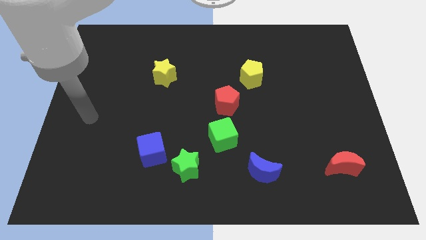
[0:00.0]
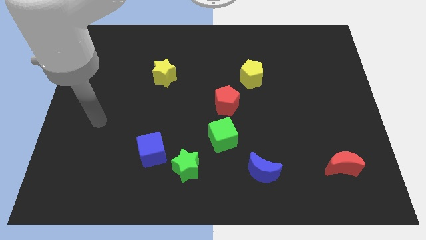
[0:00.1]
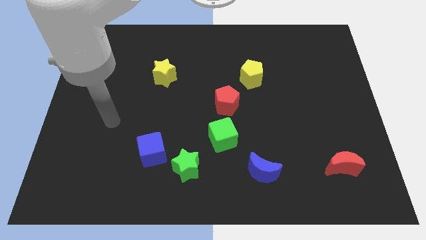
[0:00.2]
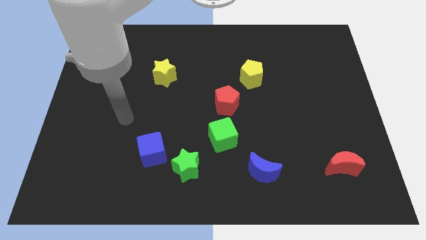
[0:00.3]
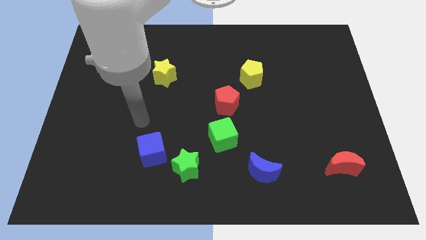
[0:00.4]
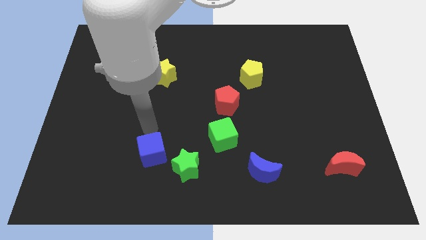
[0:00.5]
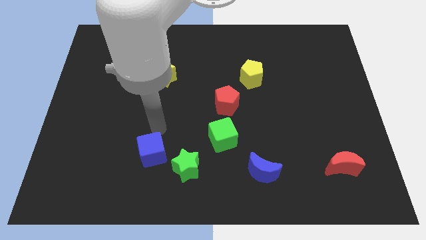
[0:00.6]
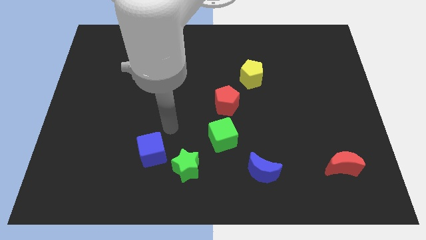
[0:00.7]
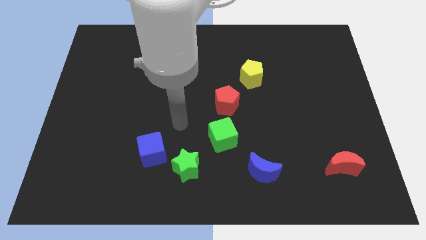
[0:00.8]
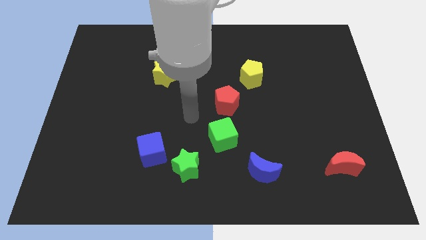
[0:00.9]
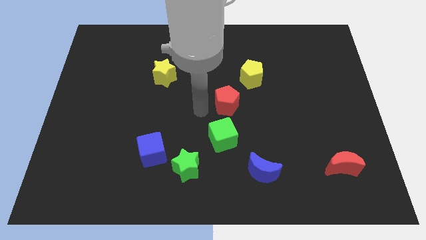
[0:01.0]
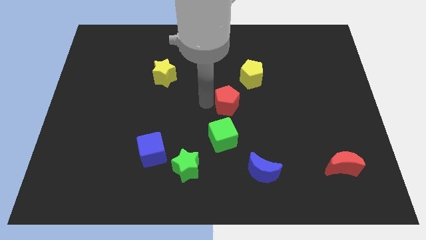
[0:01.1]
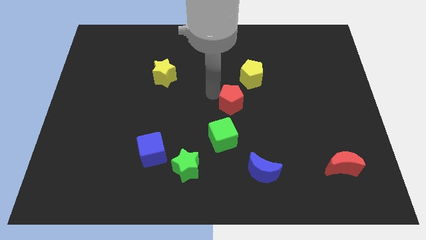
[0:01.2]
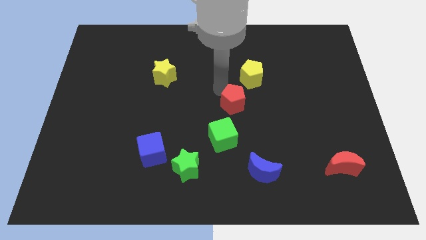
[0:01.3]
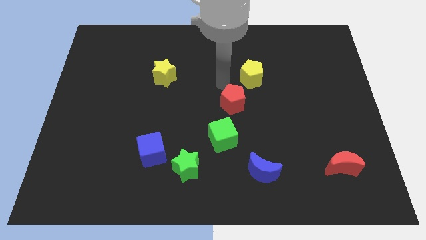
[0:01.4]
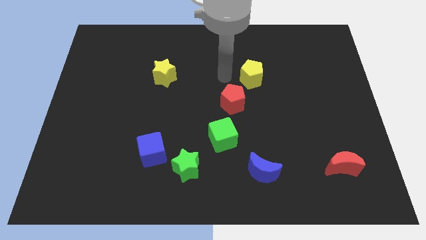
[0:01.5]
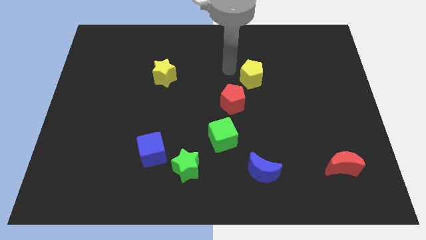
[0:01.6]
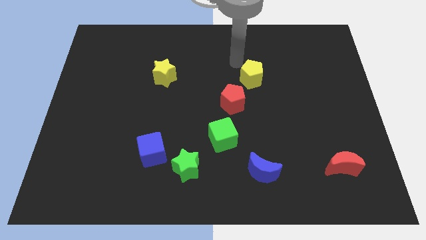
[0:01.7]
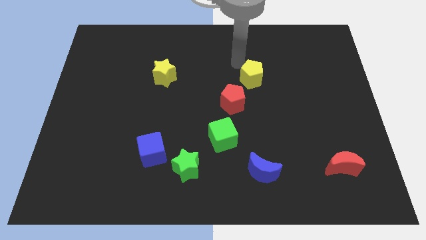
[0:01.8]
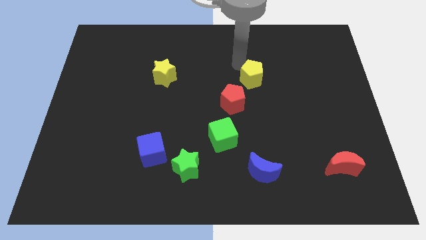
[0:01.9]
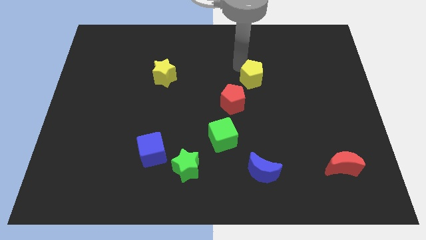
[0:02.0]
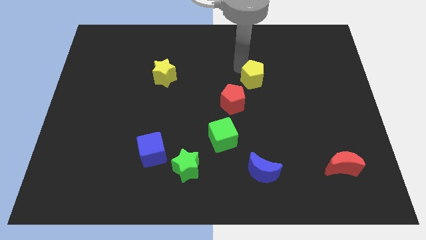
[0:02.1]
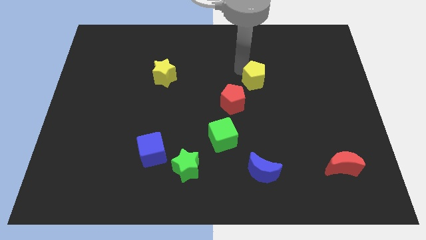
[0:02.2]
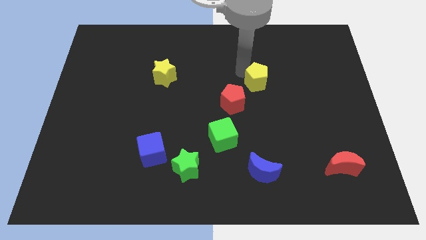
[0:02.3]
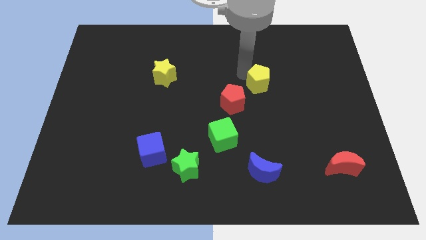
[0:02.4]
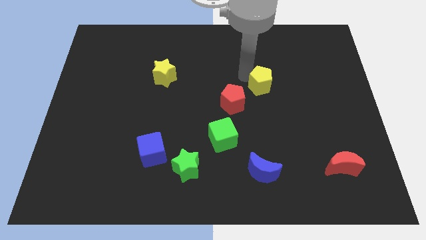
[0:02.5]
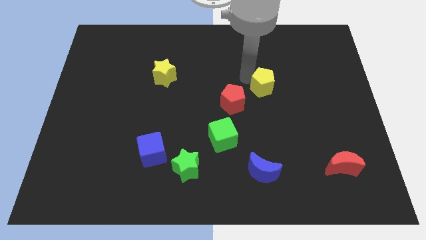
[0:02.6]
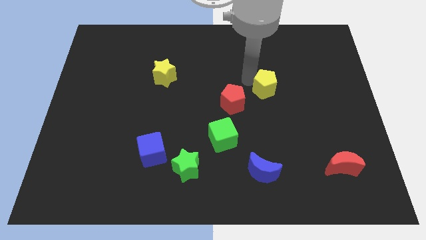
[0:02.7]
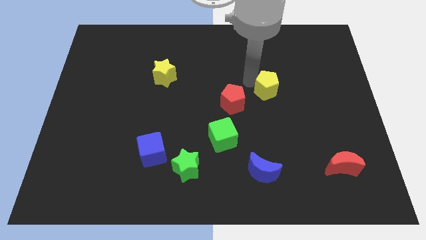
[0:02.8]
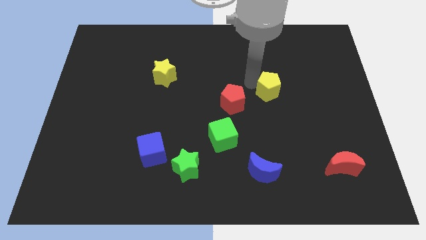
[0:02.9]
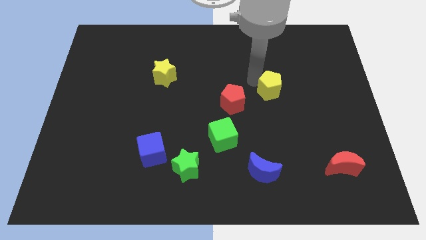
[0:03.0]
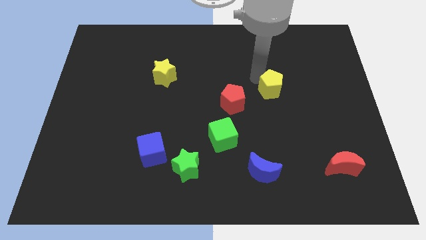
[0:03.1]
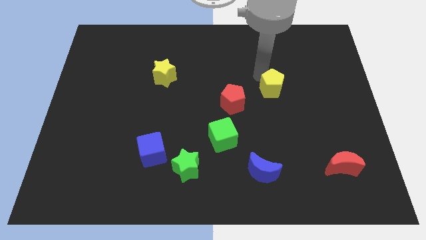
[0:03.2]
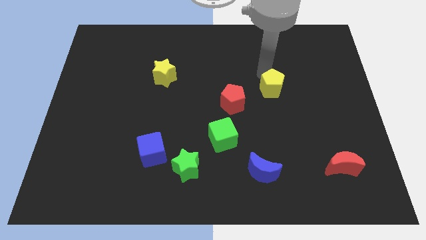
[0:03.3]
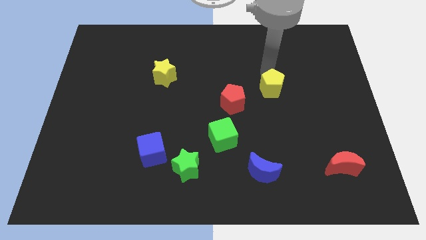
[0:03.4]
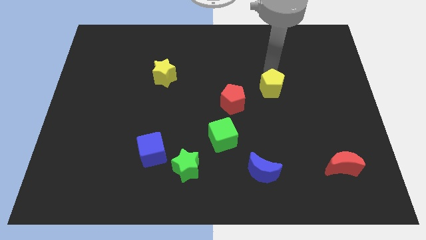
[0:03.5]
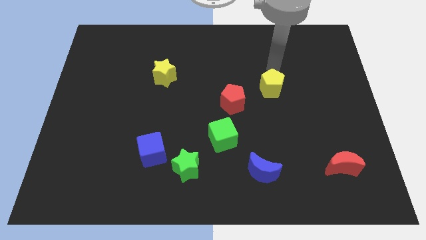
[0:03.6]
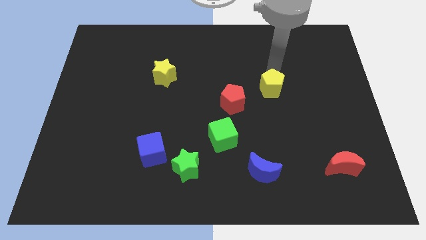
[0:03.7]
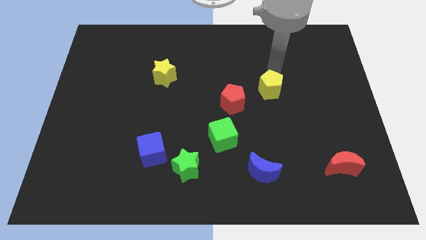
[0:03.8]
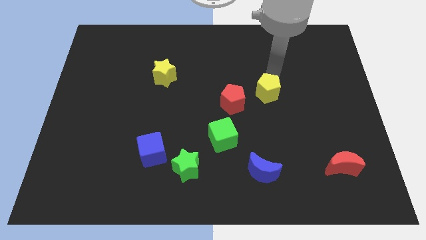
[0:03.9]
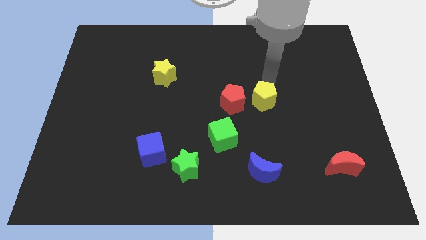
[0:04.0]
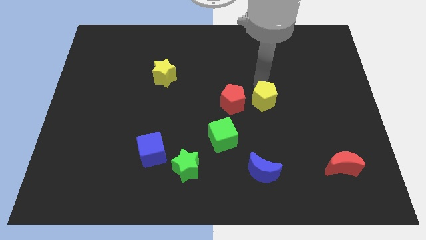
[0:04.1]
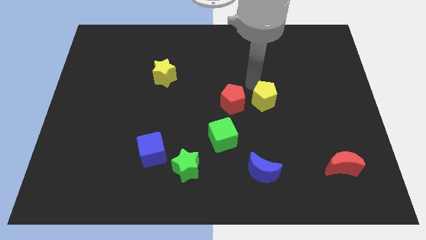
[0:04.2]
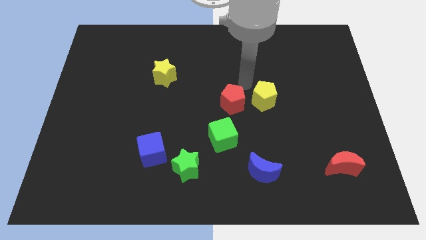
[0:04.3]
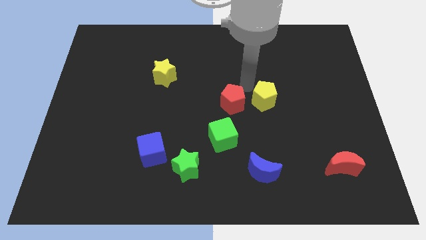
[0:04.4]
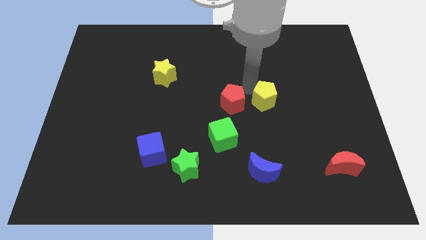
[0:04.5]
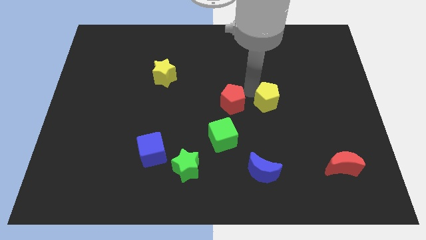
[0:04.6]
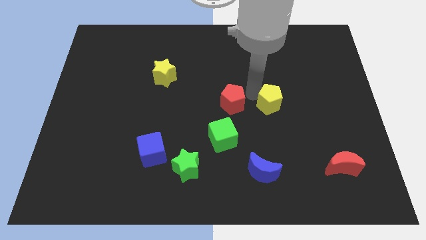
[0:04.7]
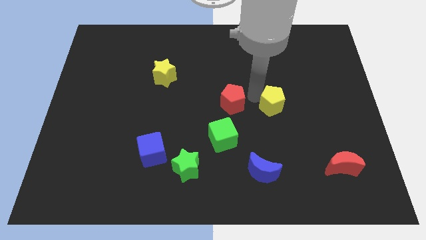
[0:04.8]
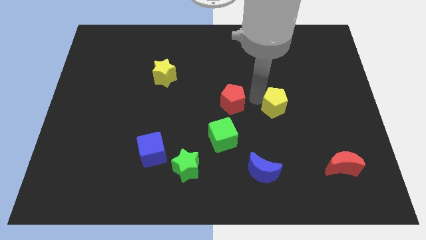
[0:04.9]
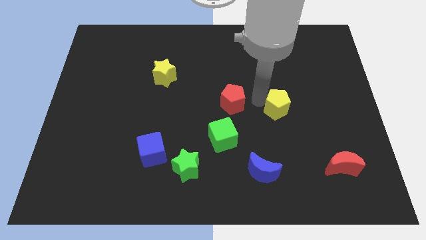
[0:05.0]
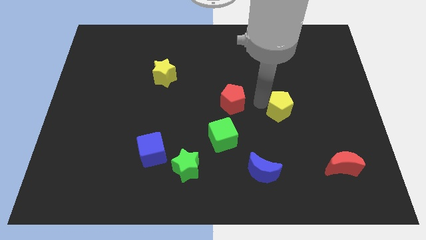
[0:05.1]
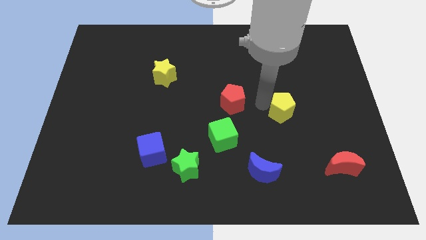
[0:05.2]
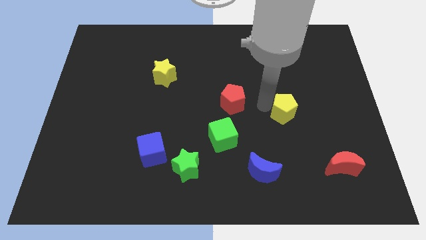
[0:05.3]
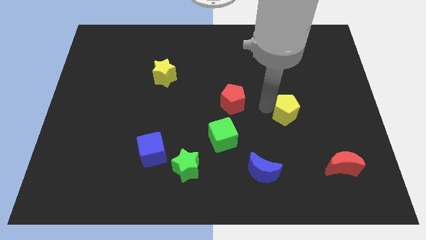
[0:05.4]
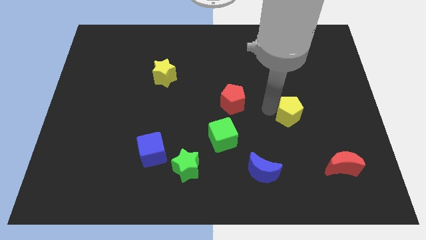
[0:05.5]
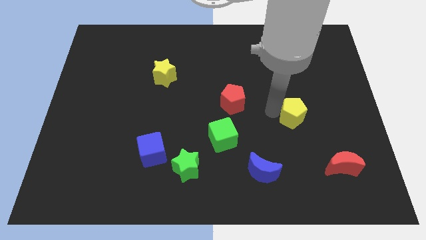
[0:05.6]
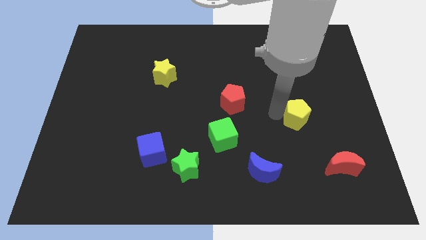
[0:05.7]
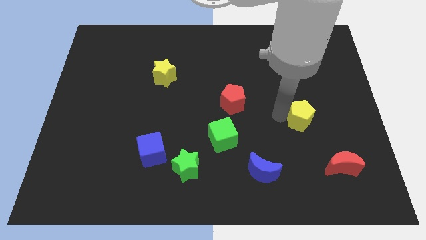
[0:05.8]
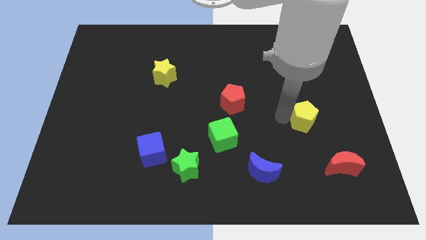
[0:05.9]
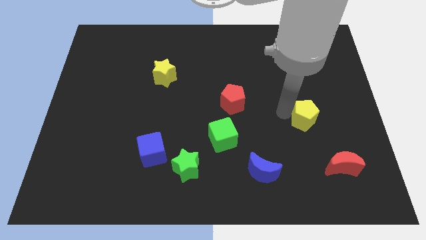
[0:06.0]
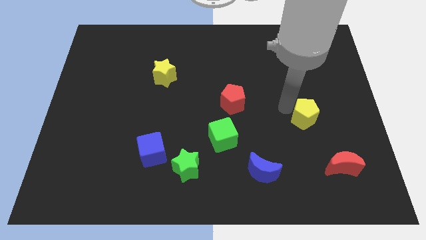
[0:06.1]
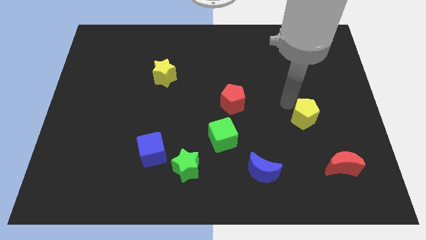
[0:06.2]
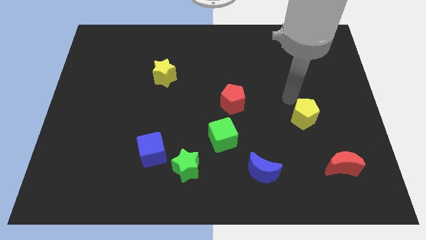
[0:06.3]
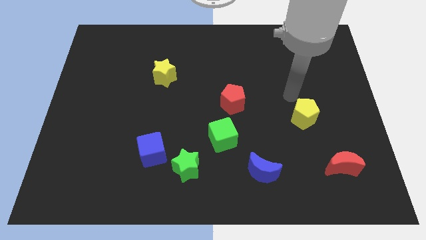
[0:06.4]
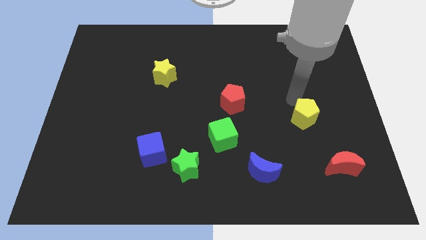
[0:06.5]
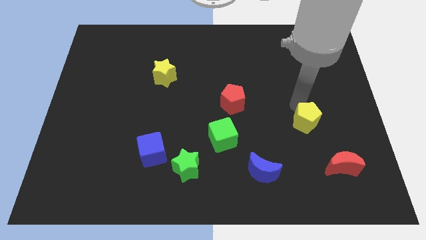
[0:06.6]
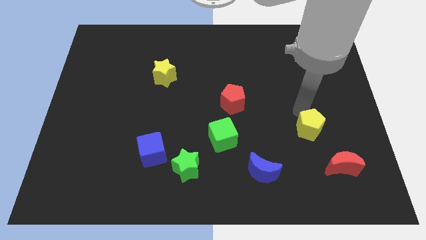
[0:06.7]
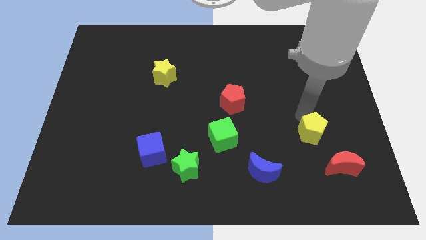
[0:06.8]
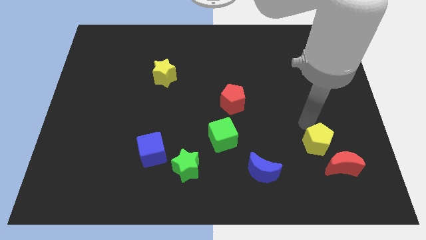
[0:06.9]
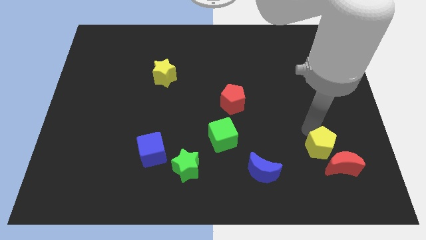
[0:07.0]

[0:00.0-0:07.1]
slide the yellow pentagon next to the red moon

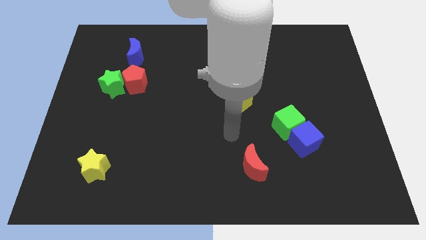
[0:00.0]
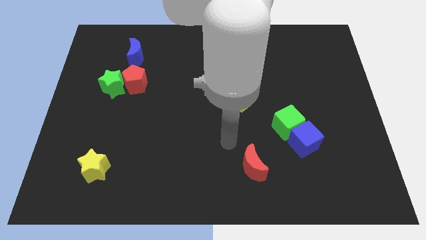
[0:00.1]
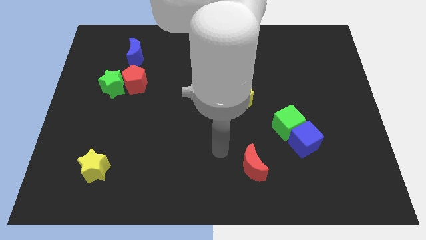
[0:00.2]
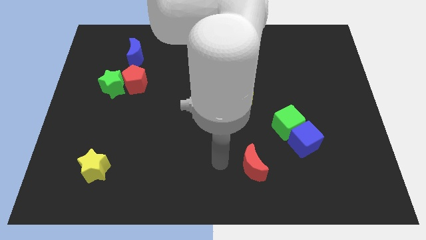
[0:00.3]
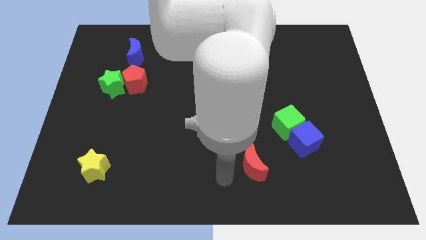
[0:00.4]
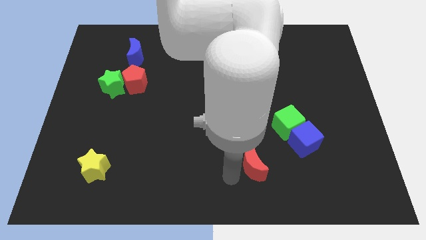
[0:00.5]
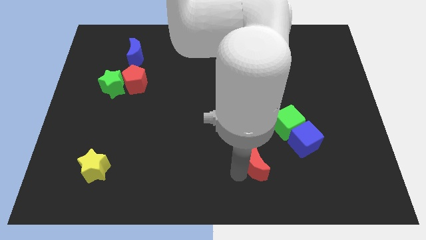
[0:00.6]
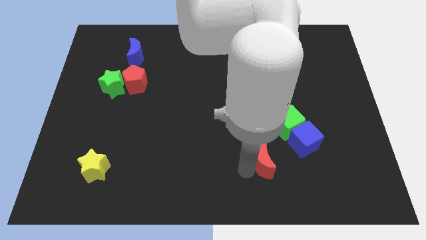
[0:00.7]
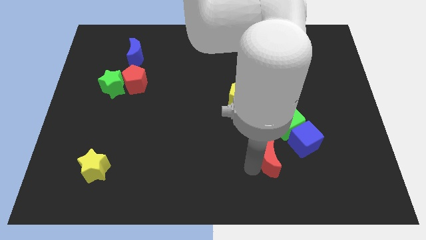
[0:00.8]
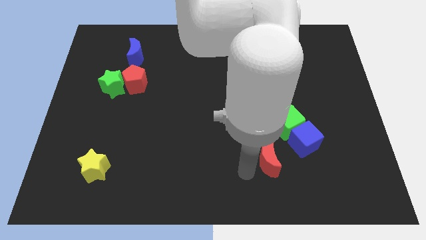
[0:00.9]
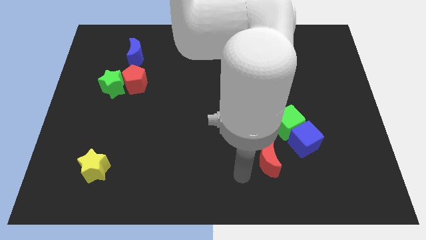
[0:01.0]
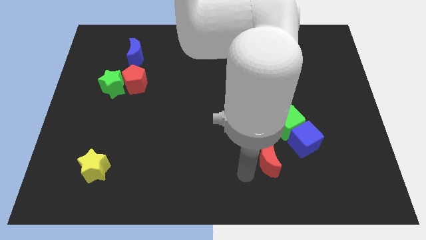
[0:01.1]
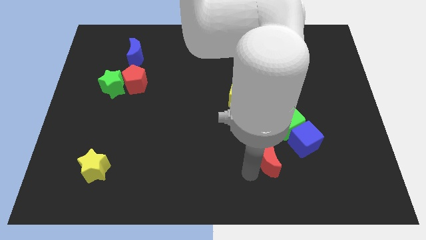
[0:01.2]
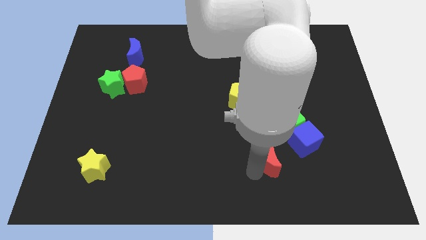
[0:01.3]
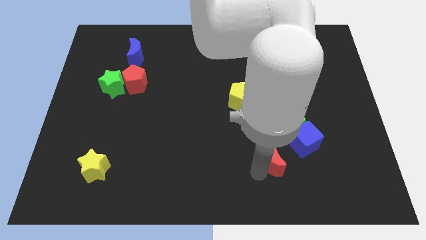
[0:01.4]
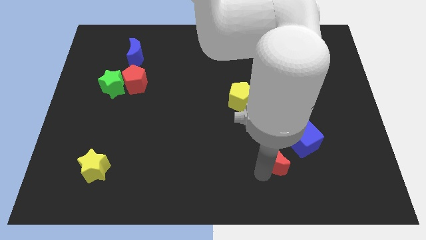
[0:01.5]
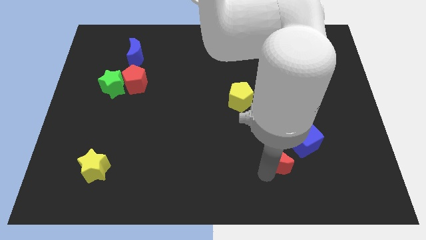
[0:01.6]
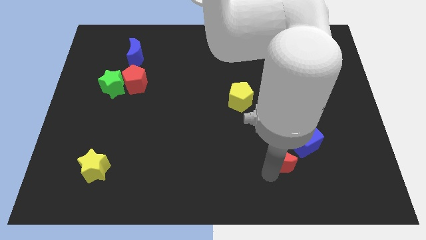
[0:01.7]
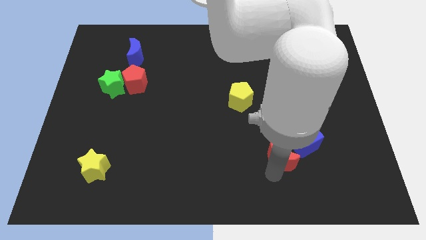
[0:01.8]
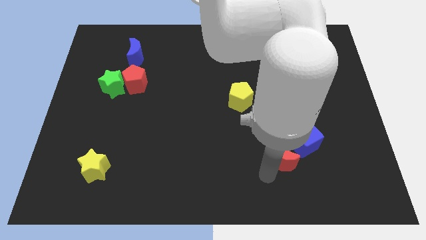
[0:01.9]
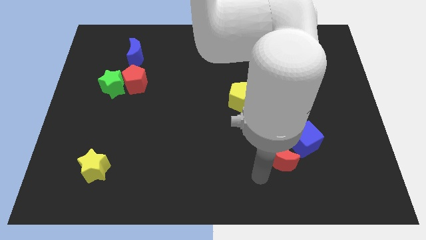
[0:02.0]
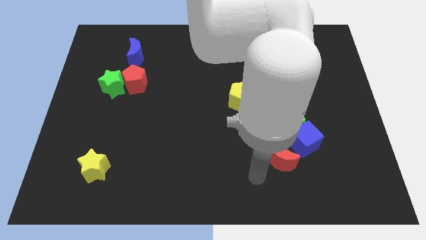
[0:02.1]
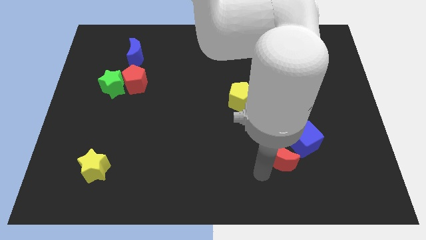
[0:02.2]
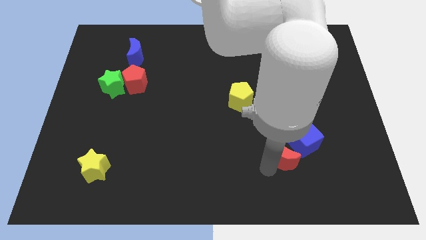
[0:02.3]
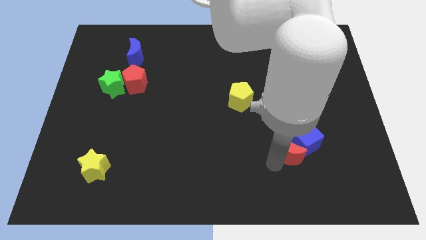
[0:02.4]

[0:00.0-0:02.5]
move the red moon to the blue cube
